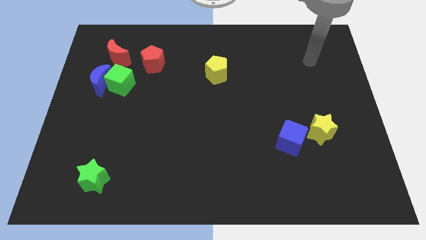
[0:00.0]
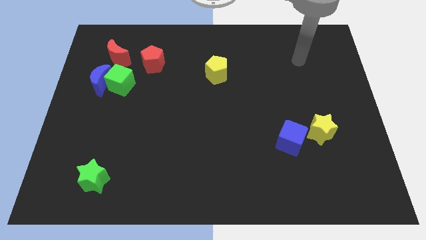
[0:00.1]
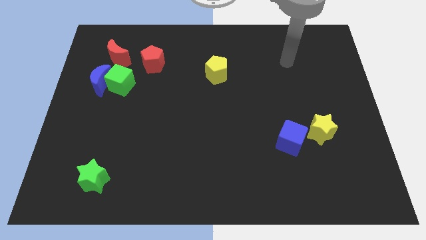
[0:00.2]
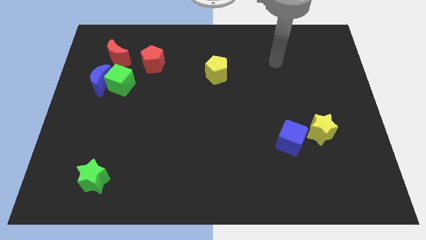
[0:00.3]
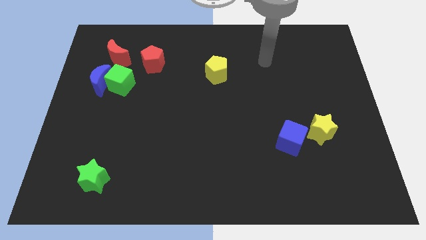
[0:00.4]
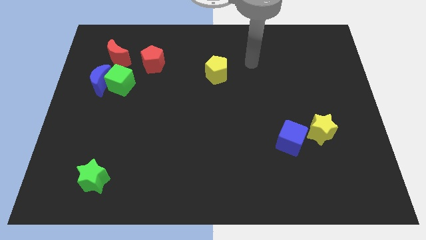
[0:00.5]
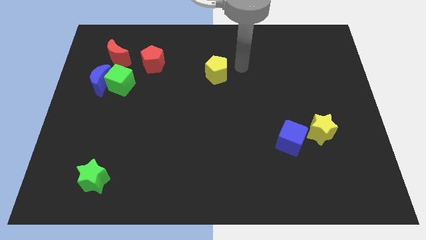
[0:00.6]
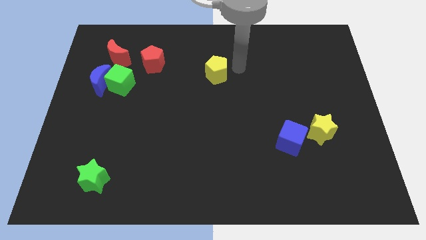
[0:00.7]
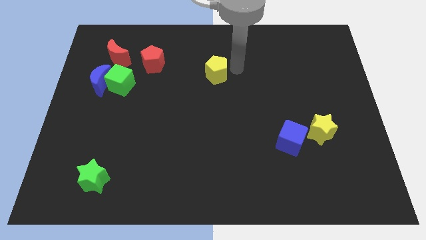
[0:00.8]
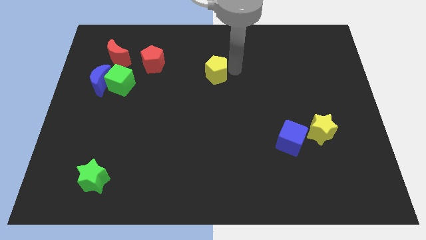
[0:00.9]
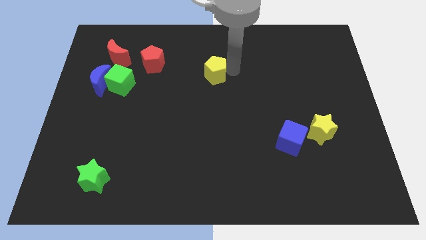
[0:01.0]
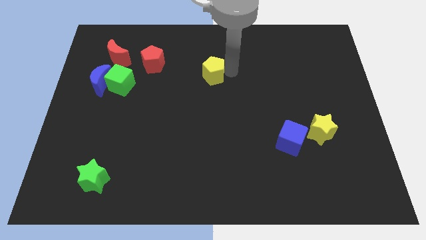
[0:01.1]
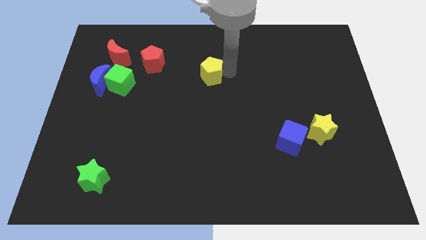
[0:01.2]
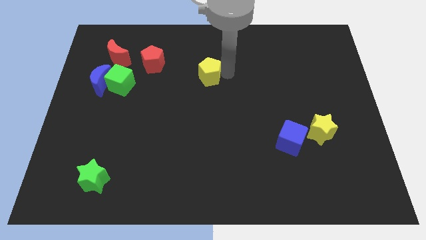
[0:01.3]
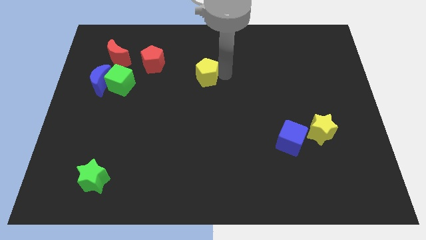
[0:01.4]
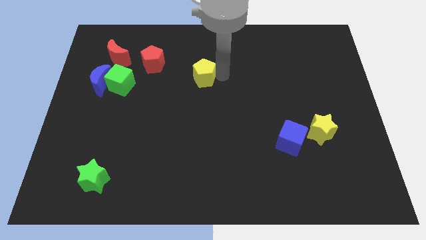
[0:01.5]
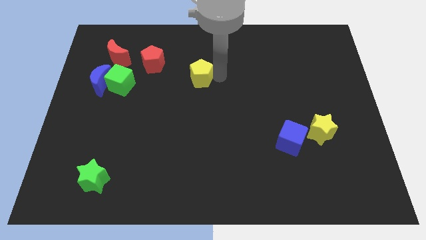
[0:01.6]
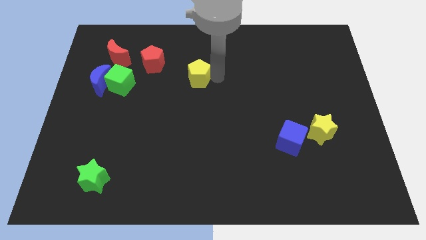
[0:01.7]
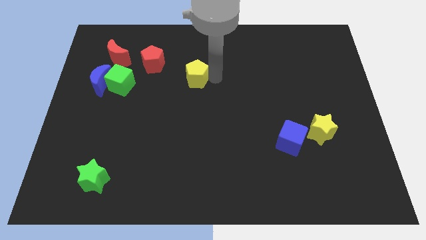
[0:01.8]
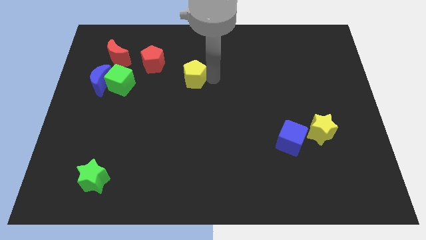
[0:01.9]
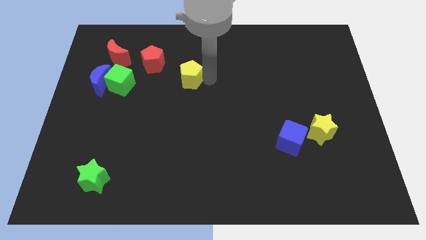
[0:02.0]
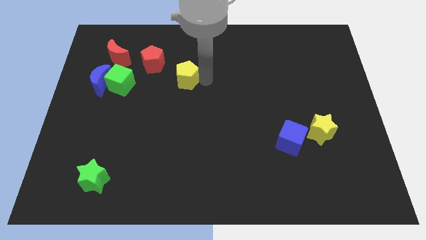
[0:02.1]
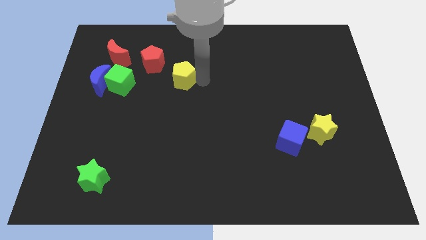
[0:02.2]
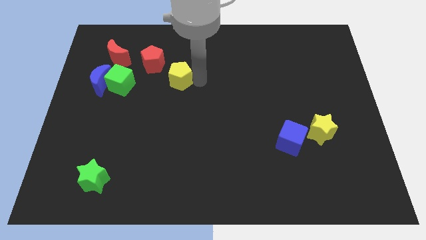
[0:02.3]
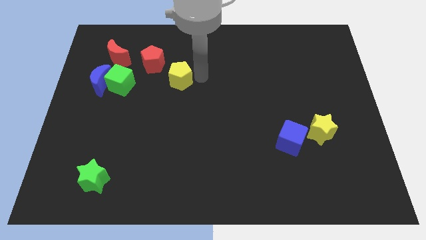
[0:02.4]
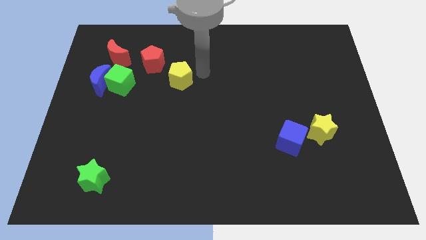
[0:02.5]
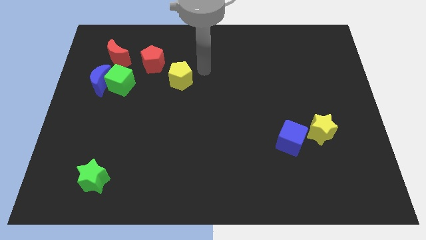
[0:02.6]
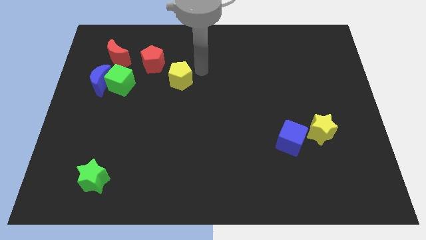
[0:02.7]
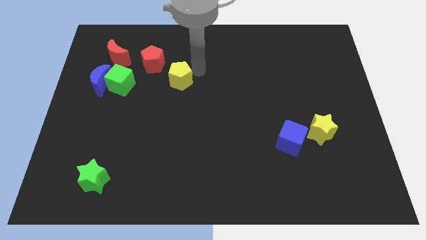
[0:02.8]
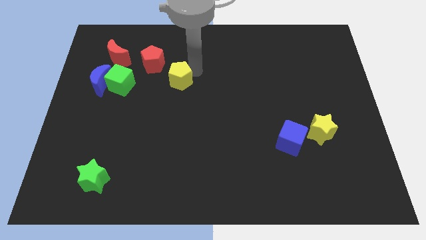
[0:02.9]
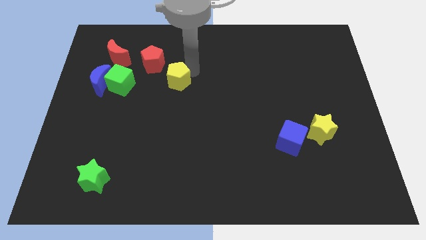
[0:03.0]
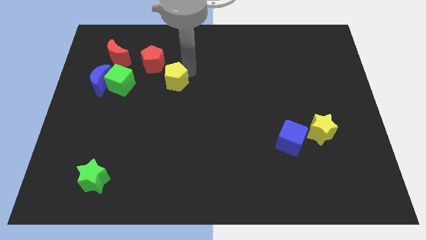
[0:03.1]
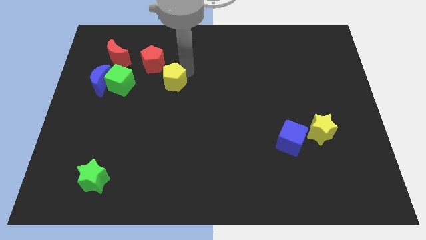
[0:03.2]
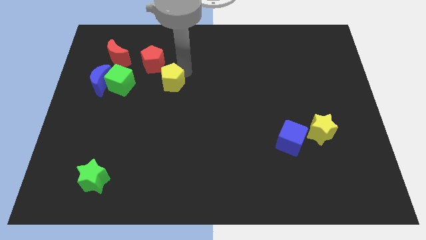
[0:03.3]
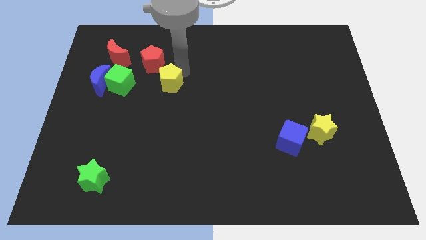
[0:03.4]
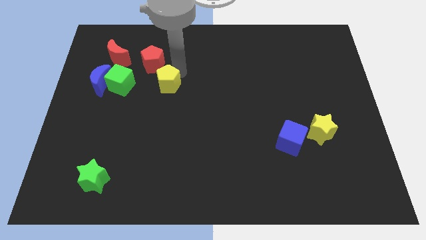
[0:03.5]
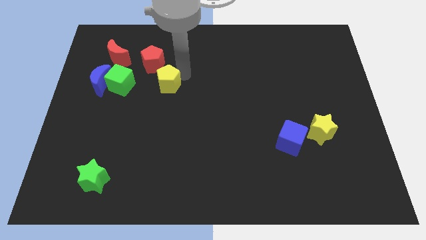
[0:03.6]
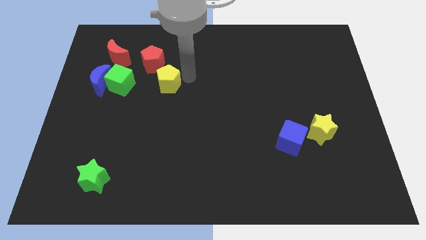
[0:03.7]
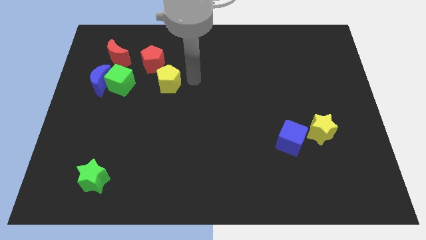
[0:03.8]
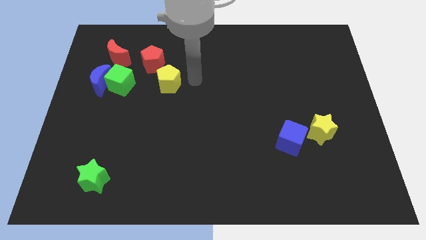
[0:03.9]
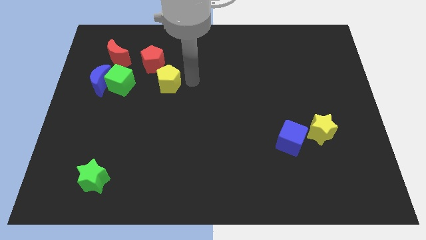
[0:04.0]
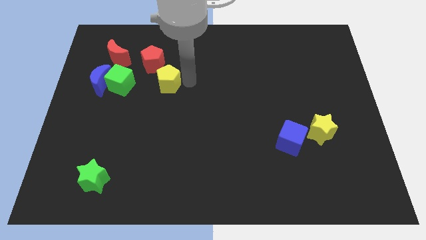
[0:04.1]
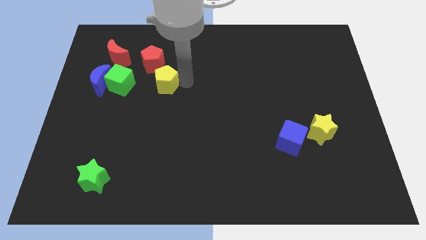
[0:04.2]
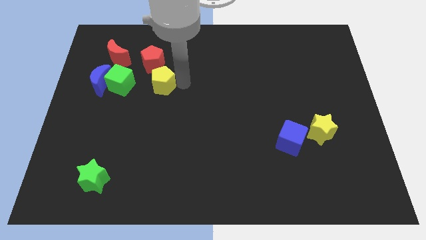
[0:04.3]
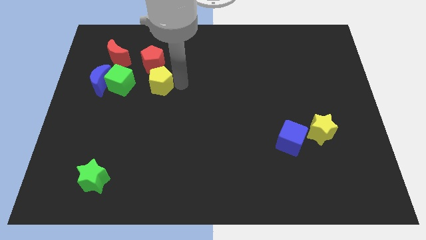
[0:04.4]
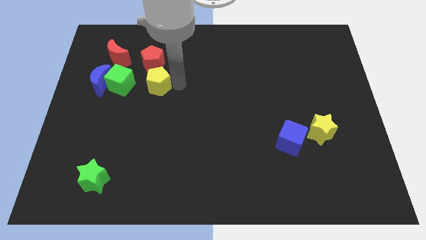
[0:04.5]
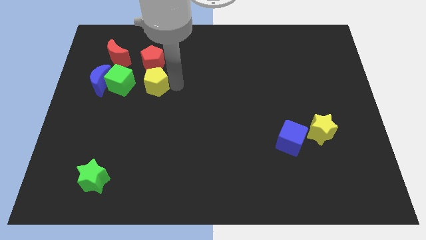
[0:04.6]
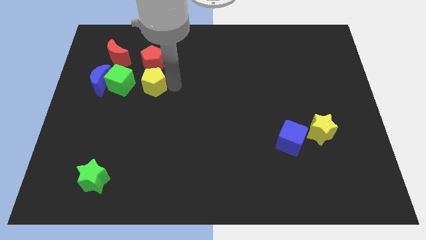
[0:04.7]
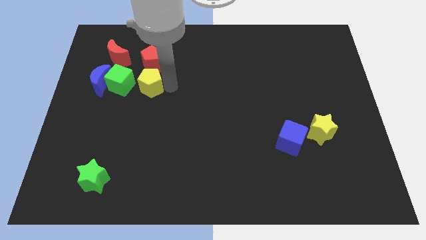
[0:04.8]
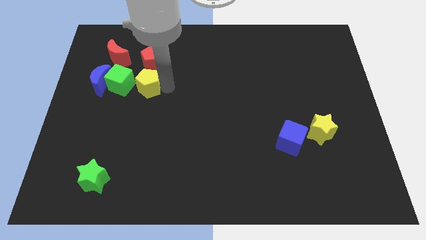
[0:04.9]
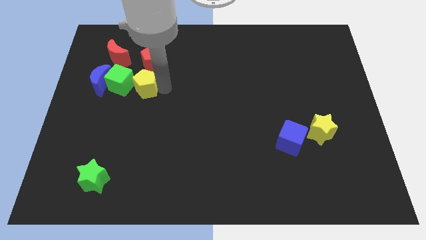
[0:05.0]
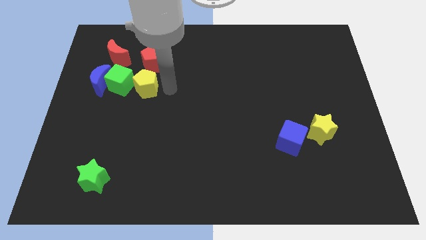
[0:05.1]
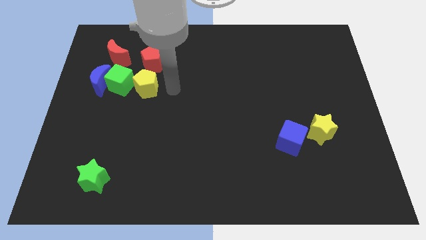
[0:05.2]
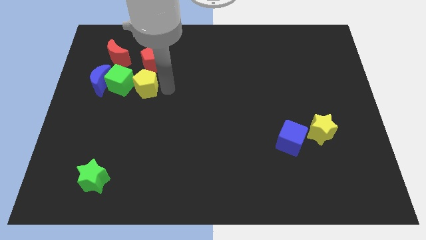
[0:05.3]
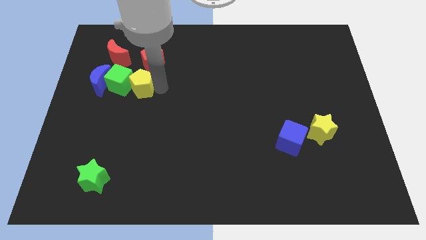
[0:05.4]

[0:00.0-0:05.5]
put the yellow pentagon towards the green cube
